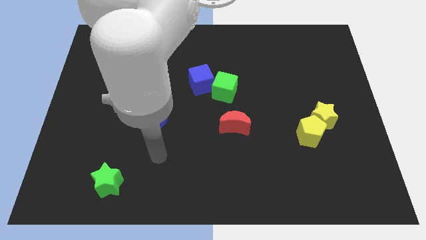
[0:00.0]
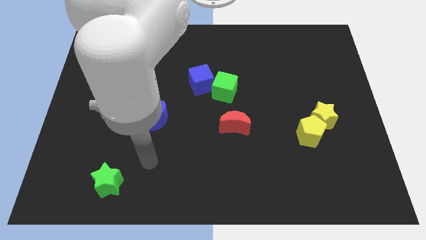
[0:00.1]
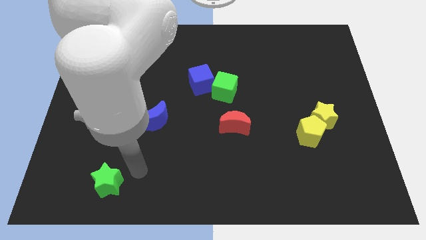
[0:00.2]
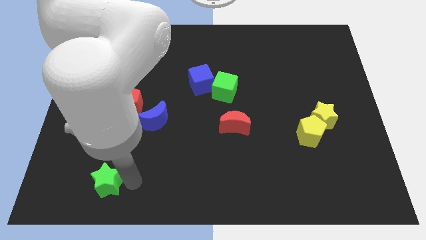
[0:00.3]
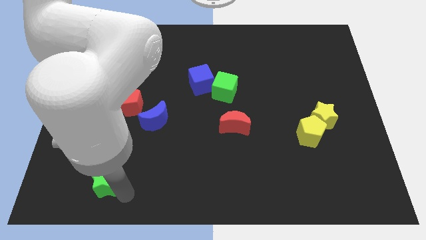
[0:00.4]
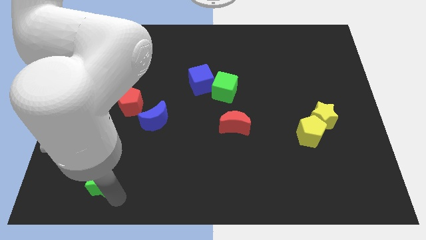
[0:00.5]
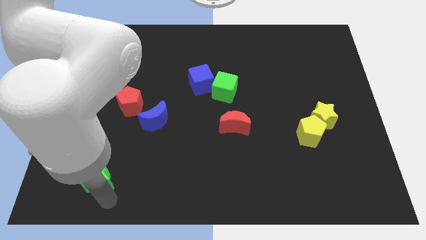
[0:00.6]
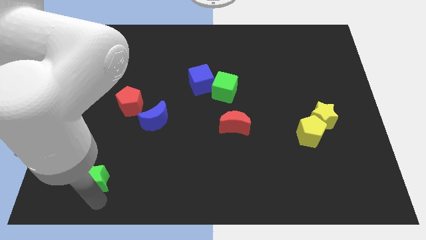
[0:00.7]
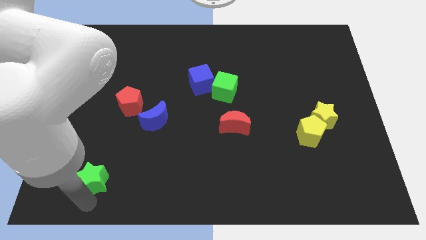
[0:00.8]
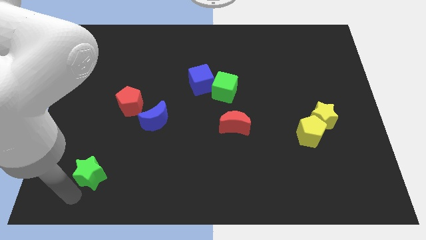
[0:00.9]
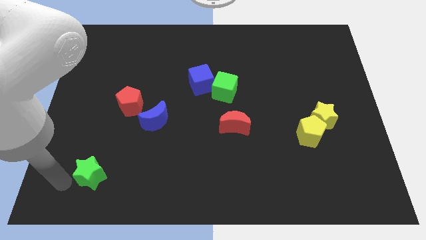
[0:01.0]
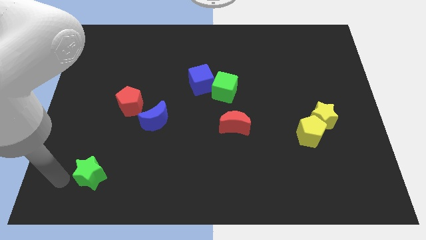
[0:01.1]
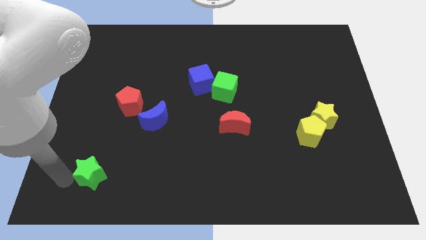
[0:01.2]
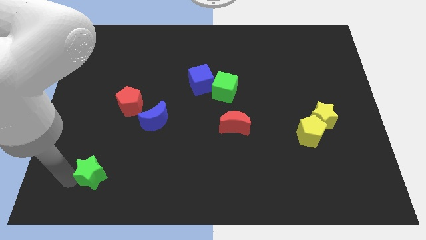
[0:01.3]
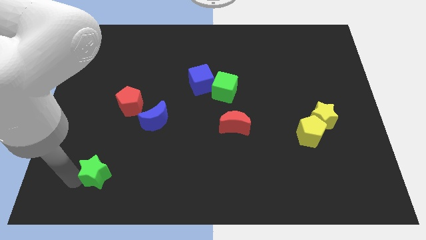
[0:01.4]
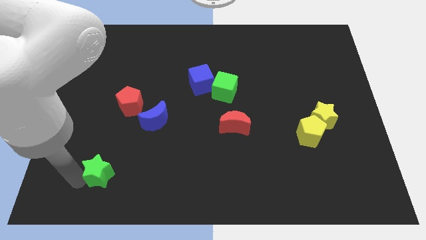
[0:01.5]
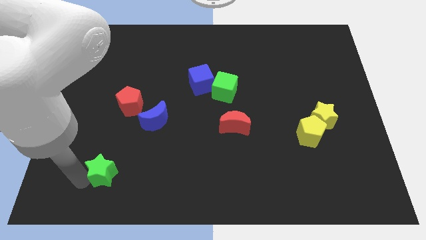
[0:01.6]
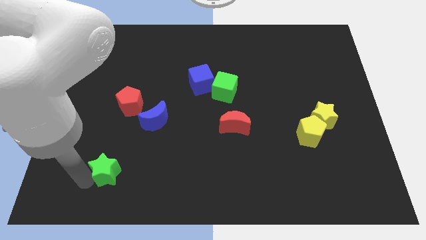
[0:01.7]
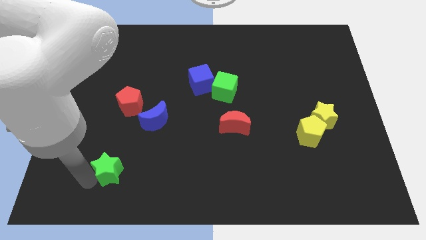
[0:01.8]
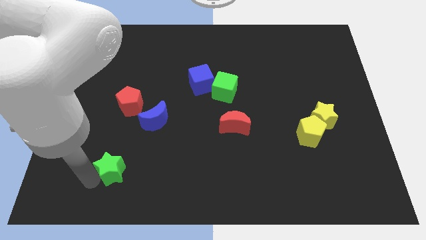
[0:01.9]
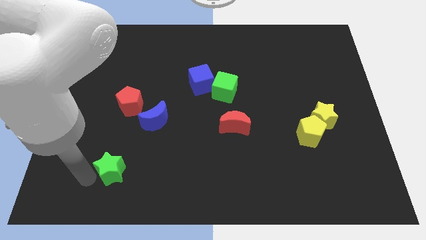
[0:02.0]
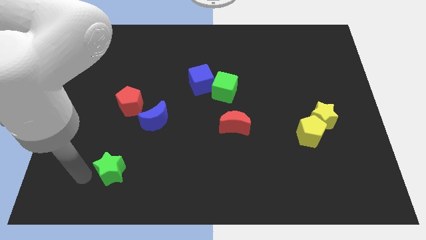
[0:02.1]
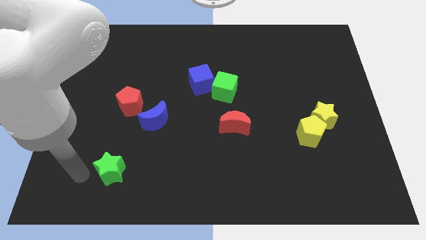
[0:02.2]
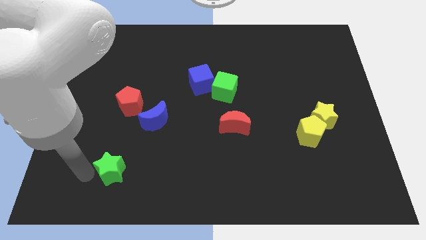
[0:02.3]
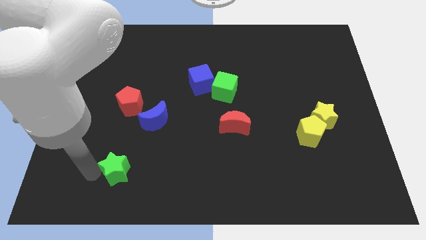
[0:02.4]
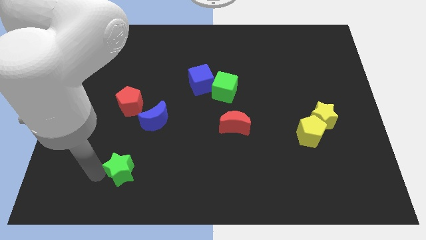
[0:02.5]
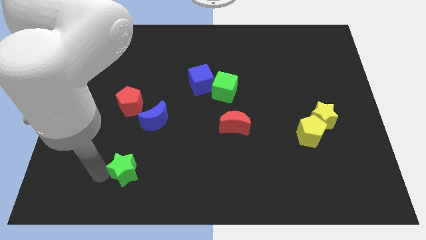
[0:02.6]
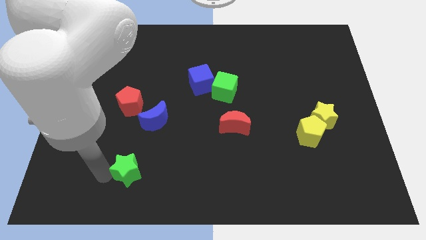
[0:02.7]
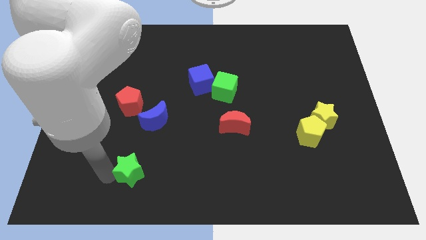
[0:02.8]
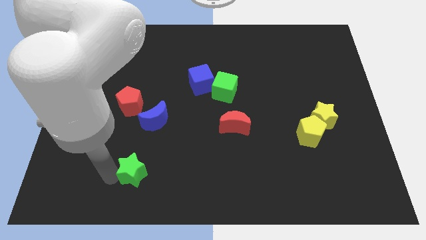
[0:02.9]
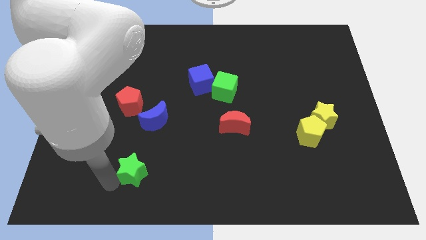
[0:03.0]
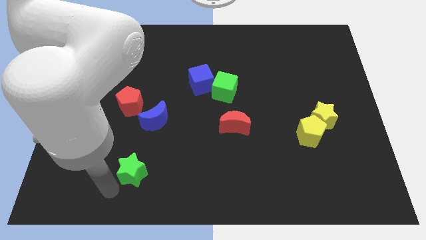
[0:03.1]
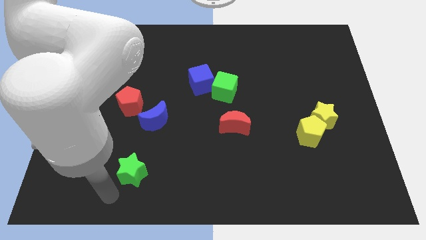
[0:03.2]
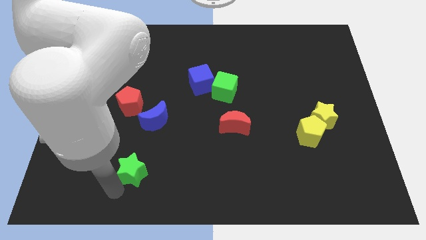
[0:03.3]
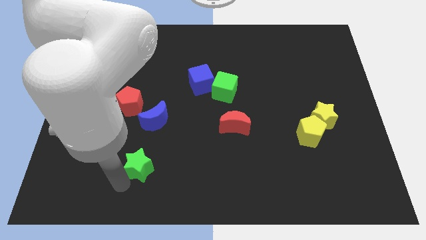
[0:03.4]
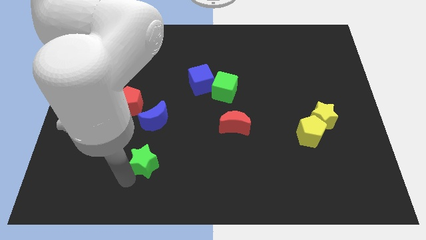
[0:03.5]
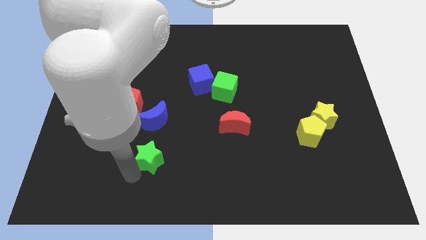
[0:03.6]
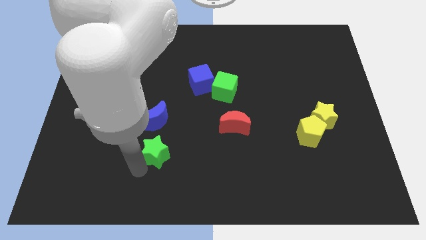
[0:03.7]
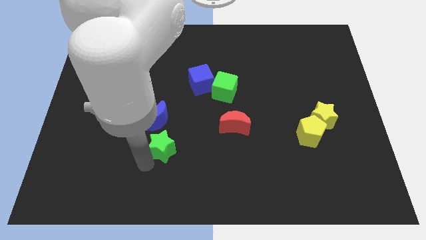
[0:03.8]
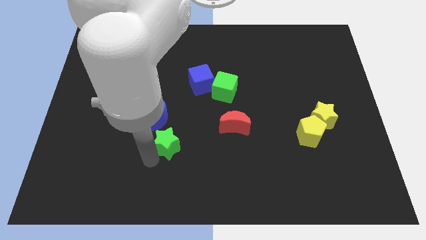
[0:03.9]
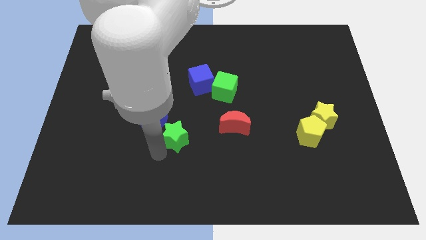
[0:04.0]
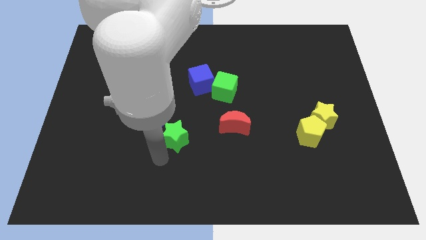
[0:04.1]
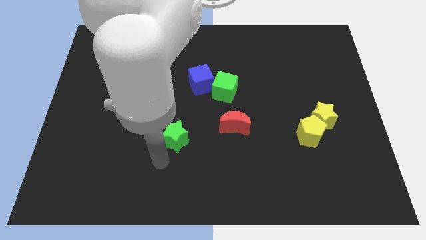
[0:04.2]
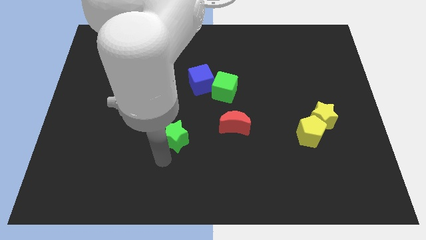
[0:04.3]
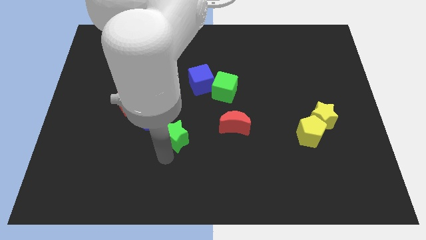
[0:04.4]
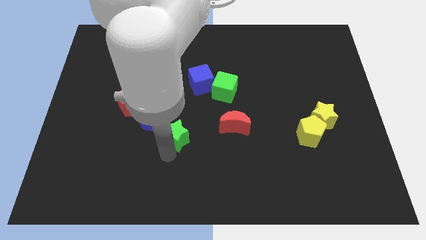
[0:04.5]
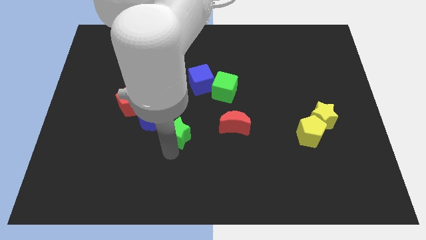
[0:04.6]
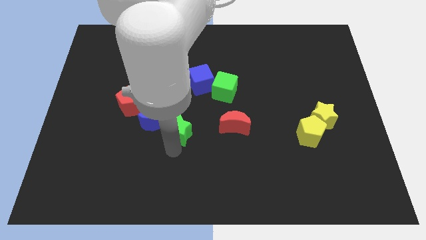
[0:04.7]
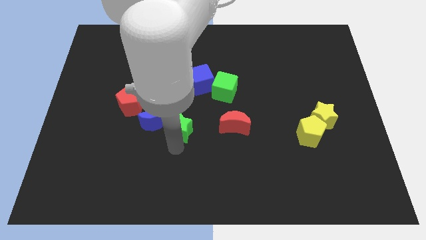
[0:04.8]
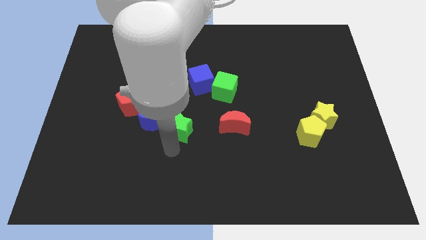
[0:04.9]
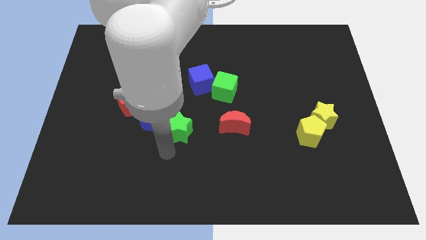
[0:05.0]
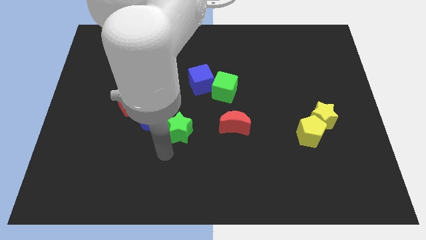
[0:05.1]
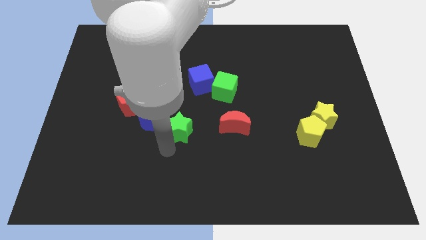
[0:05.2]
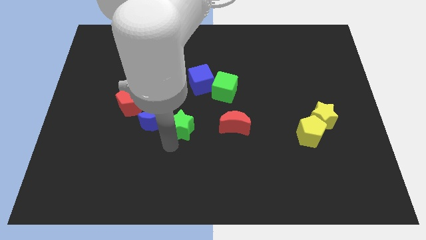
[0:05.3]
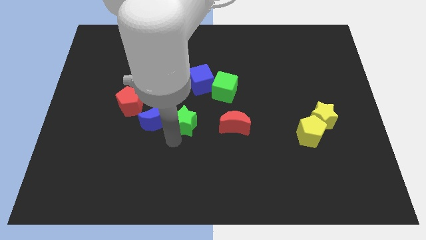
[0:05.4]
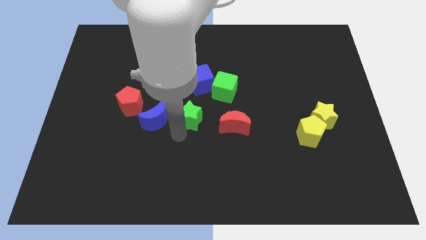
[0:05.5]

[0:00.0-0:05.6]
push the green star right of the red pentagon

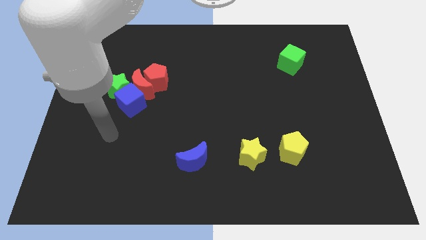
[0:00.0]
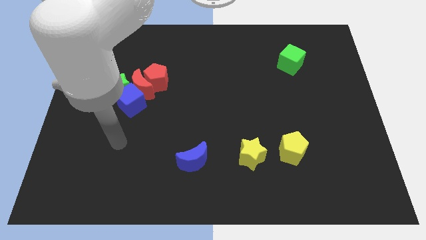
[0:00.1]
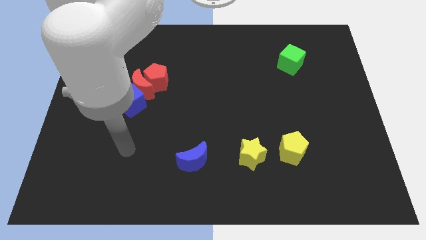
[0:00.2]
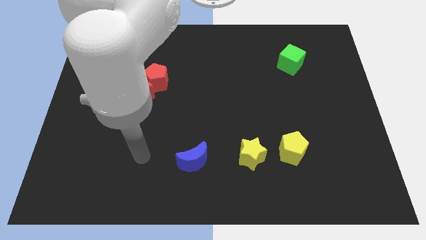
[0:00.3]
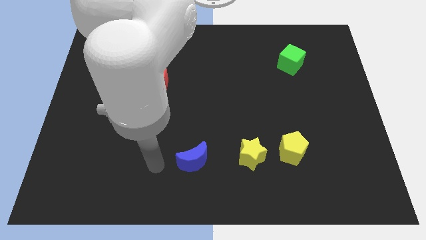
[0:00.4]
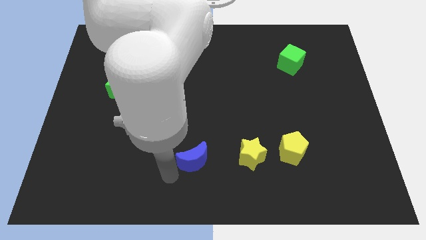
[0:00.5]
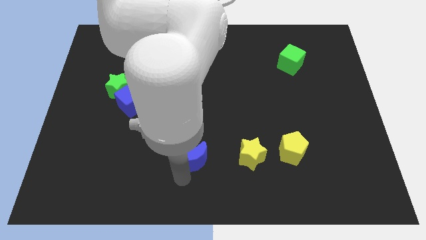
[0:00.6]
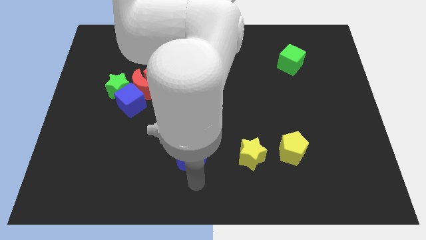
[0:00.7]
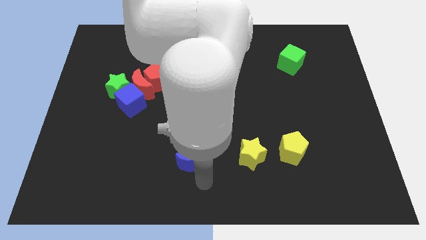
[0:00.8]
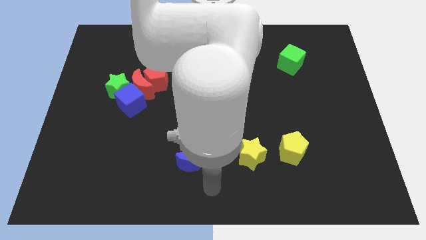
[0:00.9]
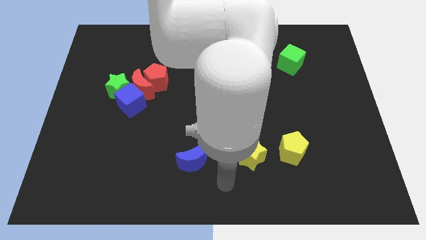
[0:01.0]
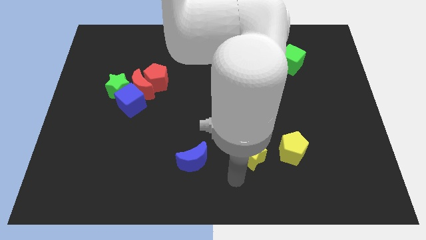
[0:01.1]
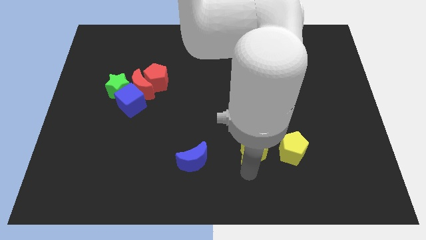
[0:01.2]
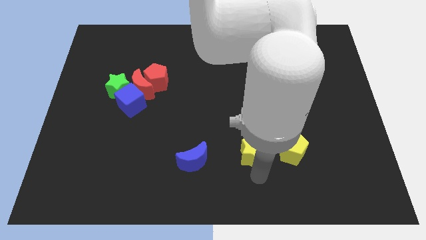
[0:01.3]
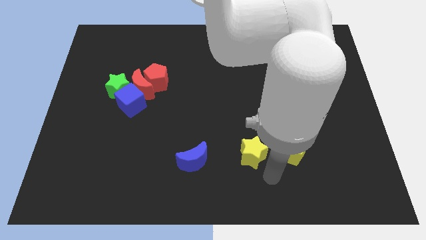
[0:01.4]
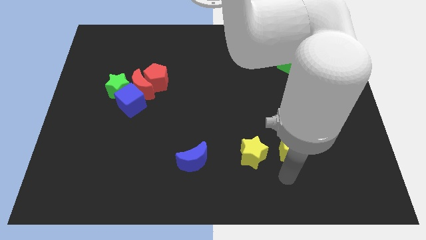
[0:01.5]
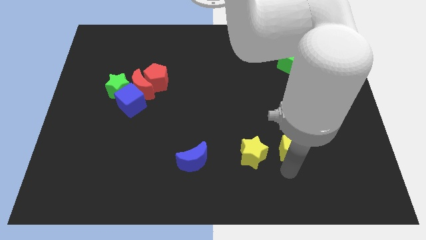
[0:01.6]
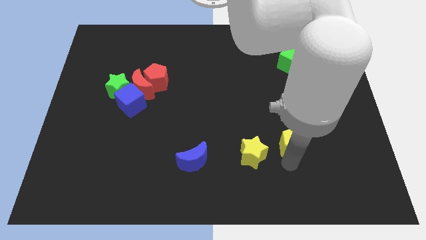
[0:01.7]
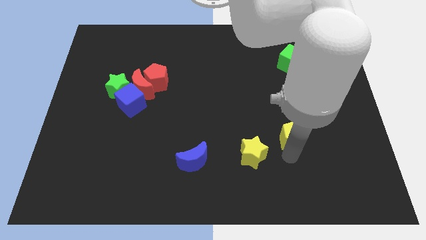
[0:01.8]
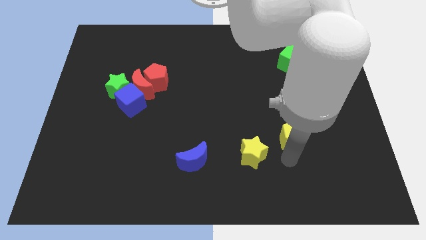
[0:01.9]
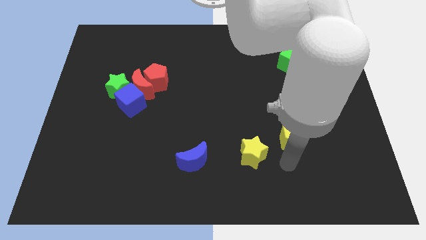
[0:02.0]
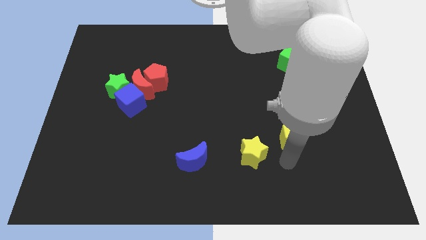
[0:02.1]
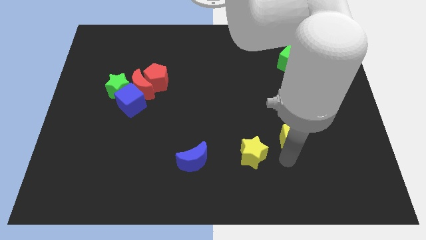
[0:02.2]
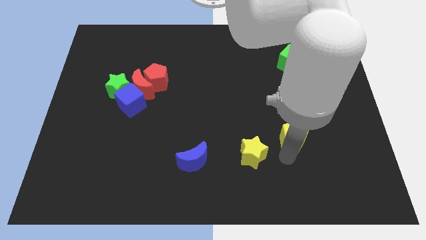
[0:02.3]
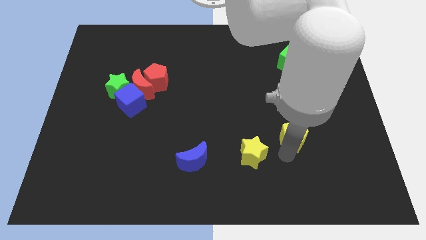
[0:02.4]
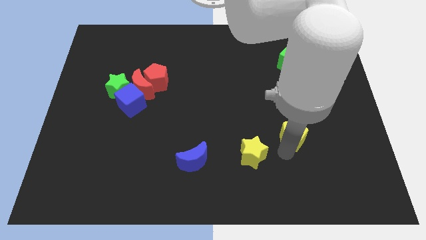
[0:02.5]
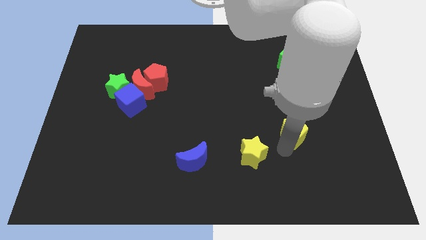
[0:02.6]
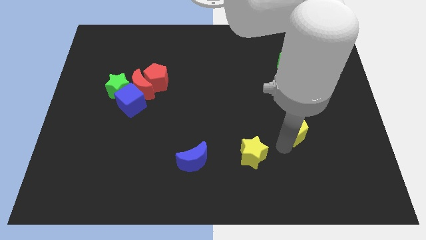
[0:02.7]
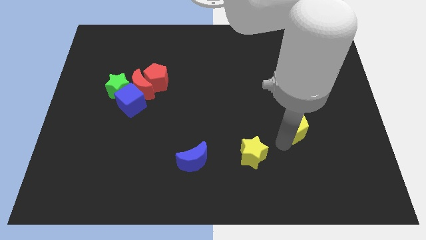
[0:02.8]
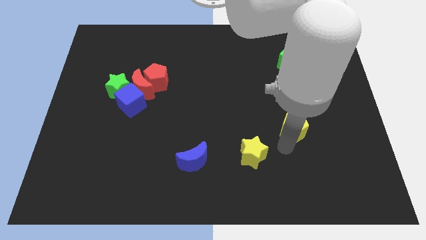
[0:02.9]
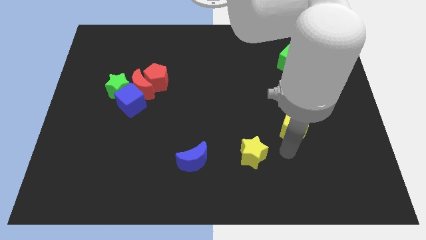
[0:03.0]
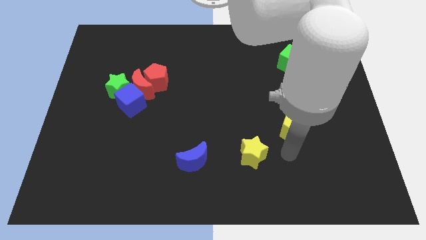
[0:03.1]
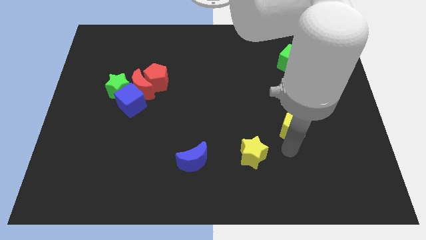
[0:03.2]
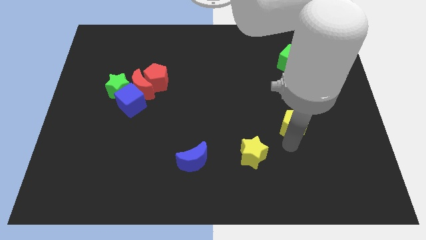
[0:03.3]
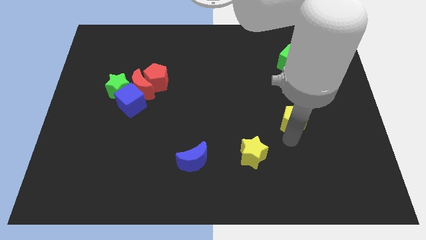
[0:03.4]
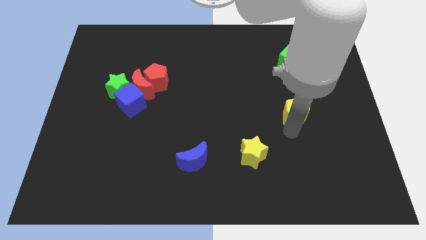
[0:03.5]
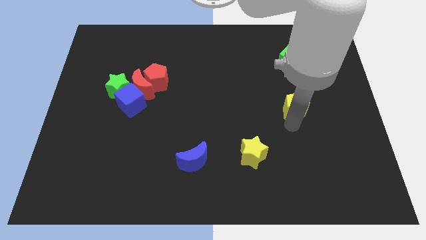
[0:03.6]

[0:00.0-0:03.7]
push the yellow pentagon to the bottom side of the green cube
